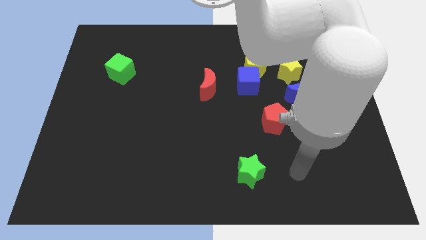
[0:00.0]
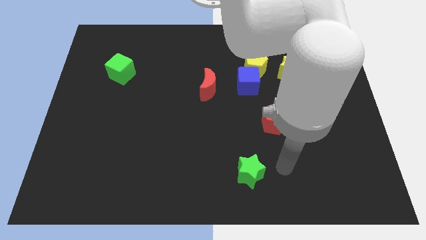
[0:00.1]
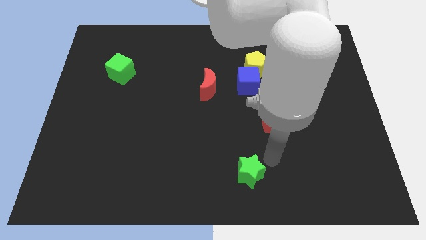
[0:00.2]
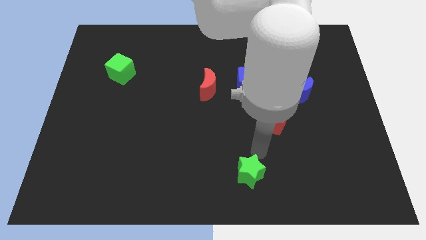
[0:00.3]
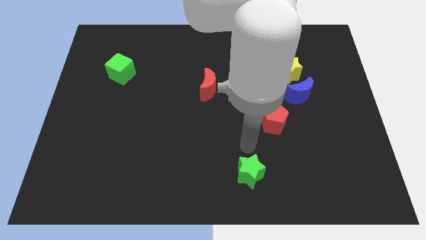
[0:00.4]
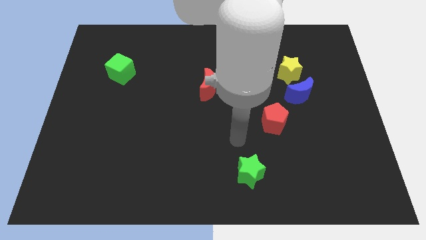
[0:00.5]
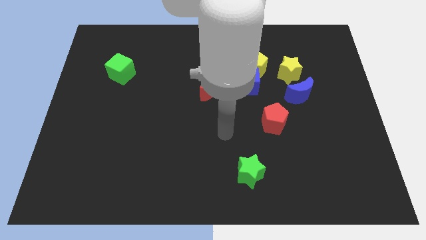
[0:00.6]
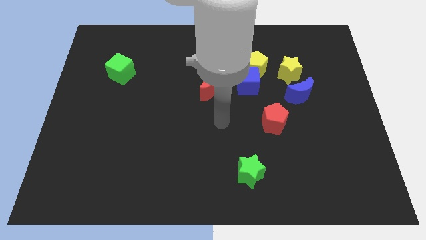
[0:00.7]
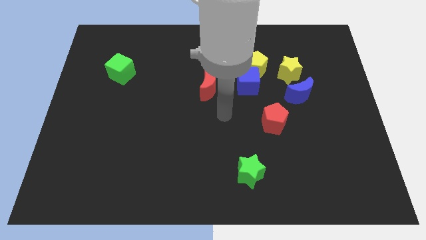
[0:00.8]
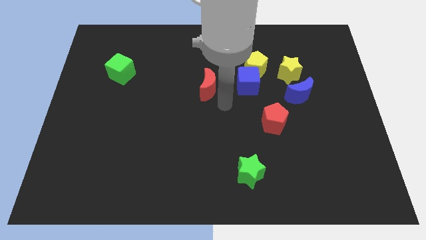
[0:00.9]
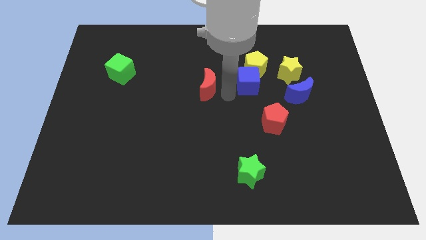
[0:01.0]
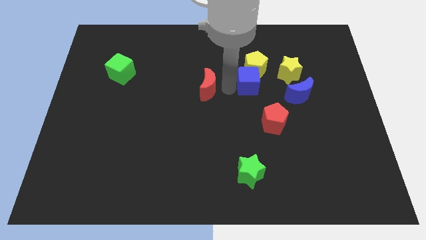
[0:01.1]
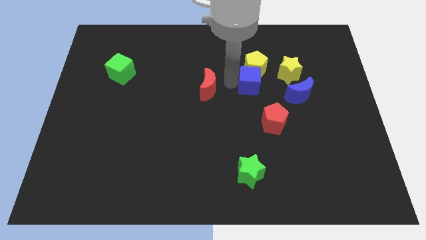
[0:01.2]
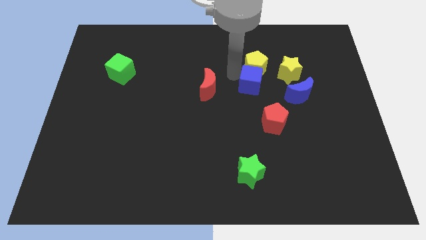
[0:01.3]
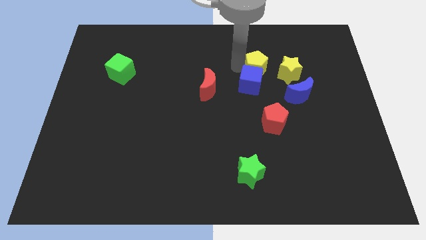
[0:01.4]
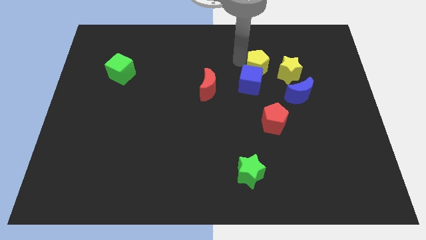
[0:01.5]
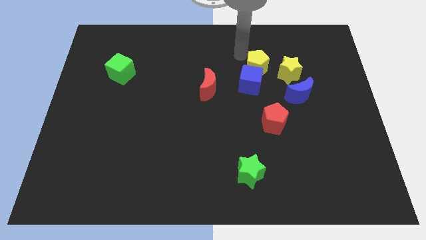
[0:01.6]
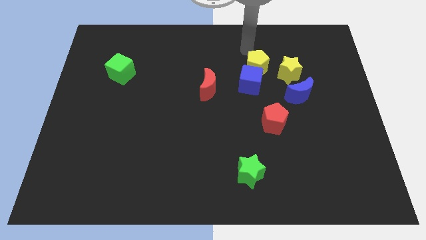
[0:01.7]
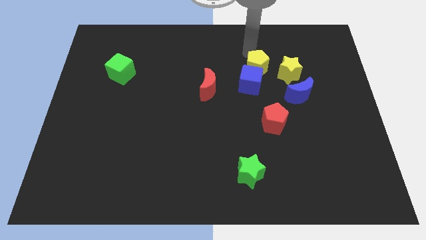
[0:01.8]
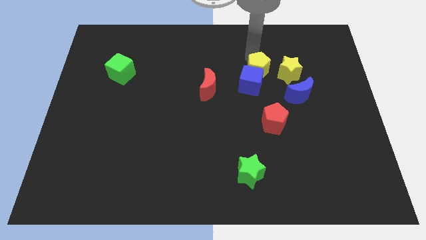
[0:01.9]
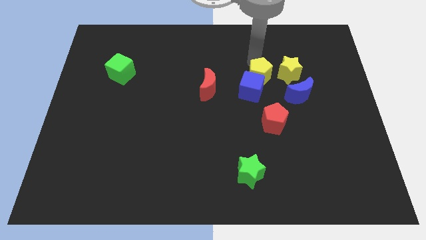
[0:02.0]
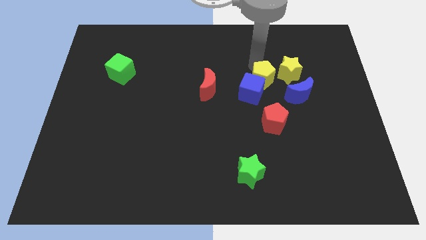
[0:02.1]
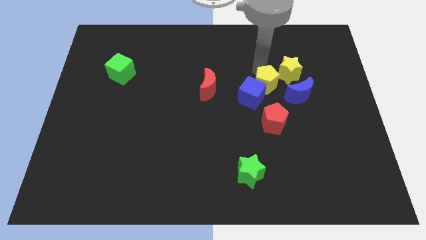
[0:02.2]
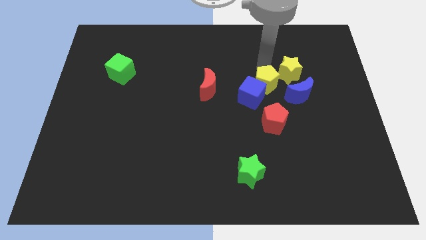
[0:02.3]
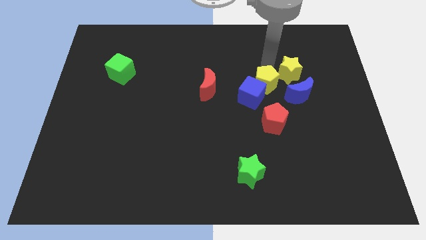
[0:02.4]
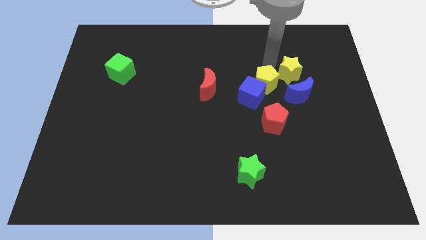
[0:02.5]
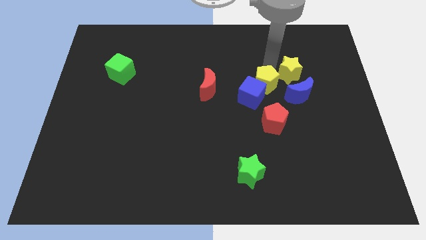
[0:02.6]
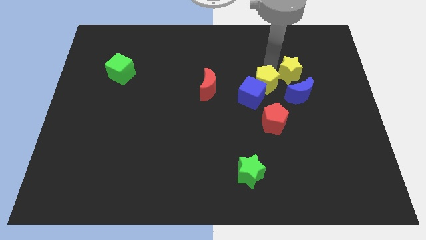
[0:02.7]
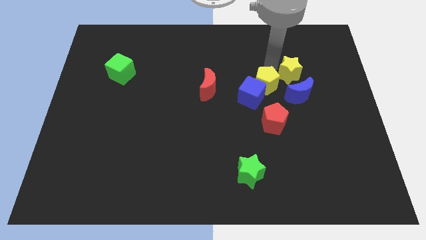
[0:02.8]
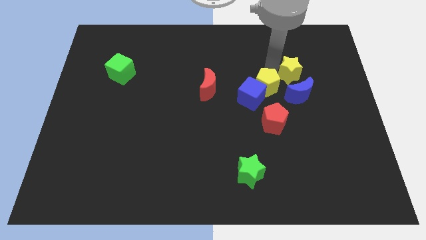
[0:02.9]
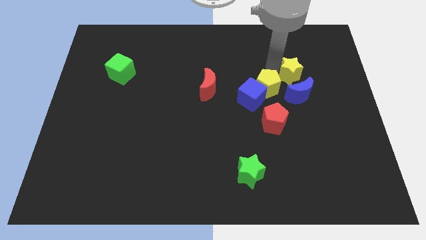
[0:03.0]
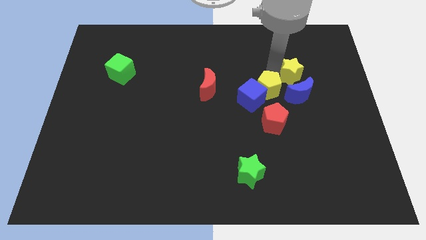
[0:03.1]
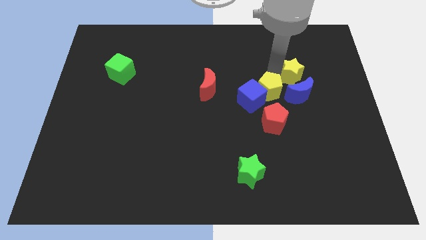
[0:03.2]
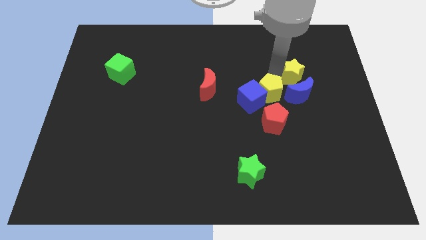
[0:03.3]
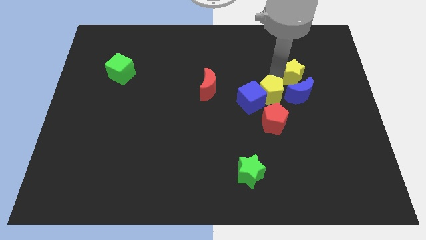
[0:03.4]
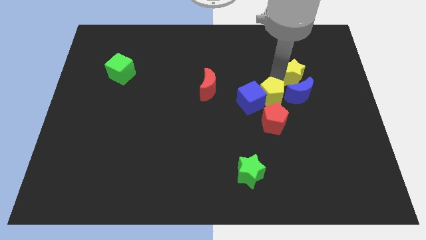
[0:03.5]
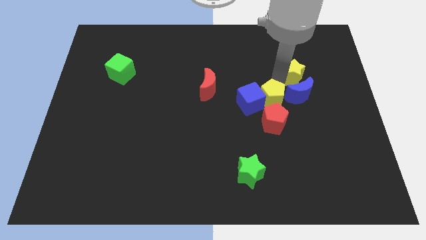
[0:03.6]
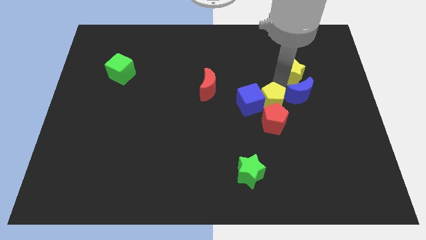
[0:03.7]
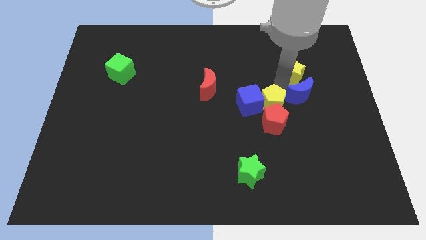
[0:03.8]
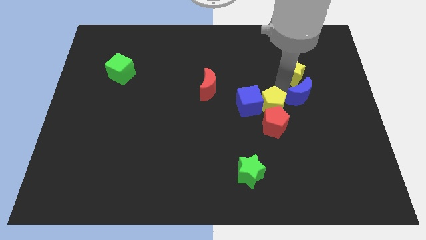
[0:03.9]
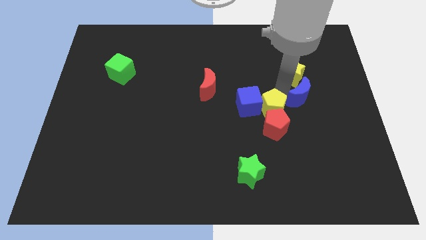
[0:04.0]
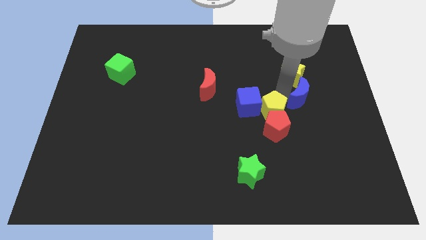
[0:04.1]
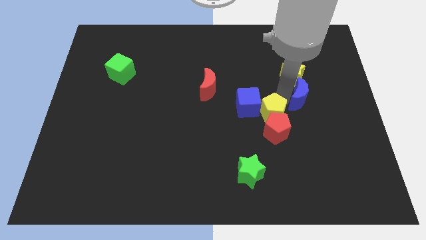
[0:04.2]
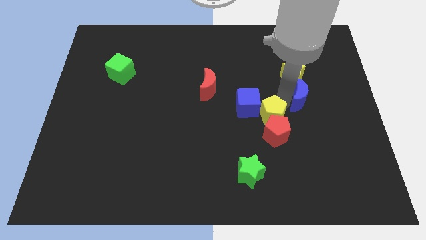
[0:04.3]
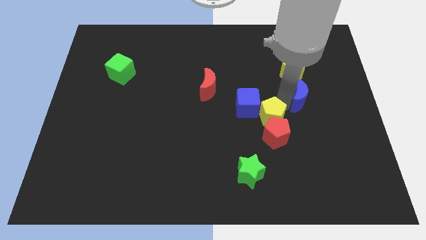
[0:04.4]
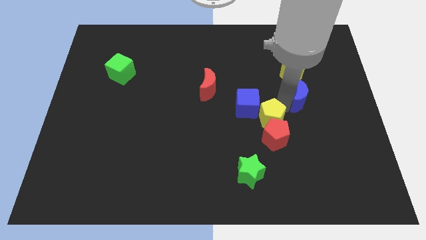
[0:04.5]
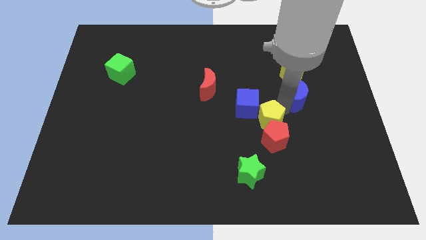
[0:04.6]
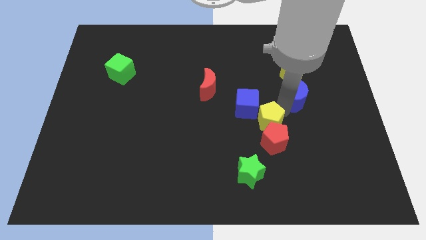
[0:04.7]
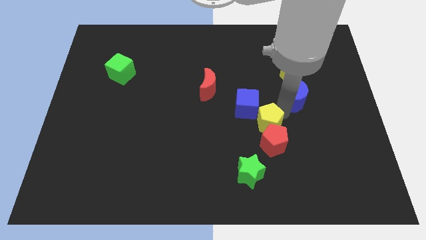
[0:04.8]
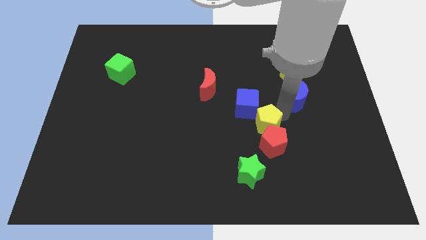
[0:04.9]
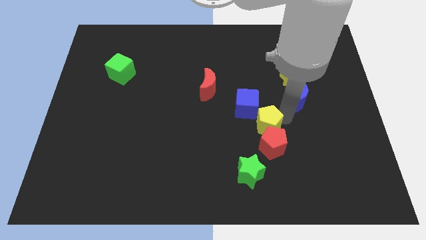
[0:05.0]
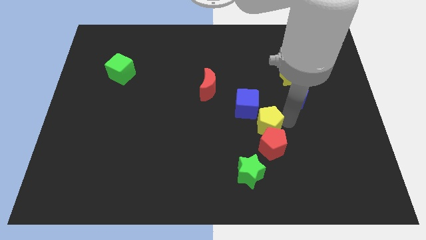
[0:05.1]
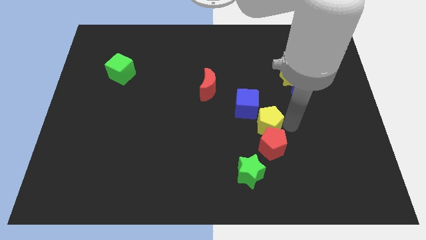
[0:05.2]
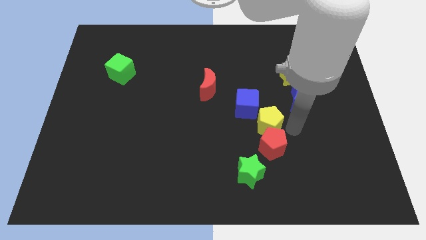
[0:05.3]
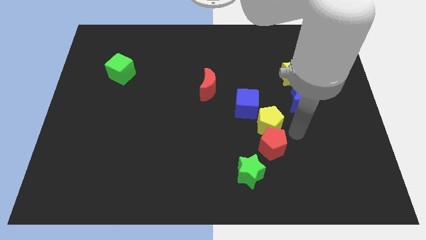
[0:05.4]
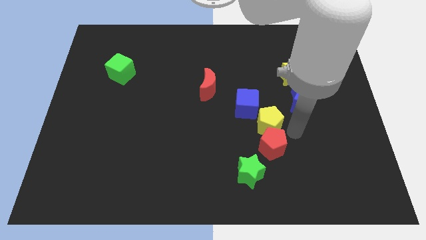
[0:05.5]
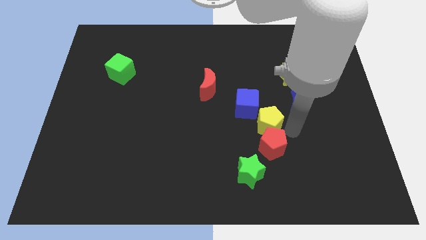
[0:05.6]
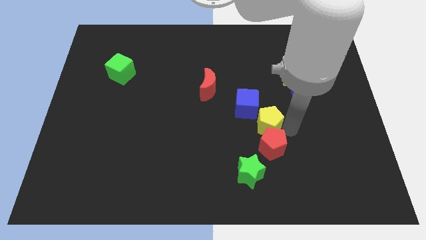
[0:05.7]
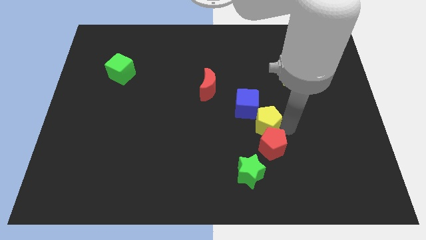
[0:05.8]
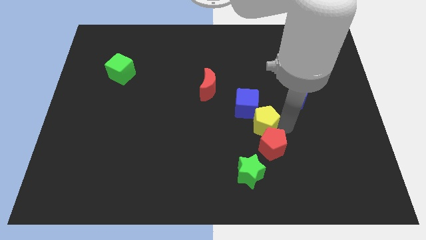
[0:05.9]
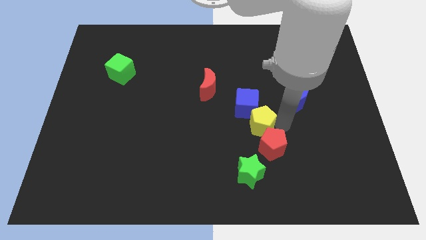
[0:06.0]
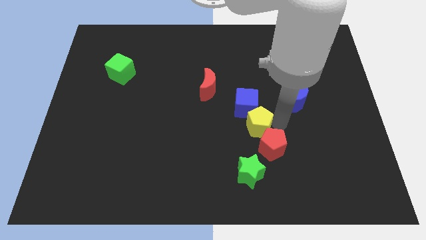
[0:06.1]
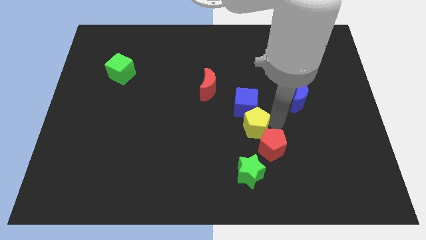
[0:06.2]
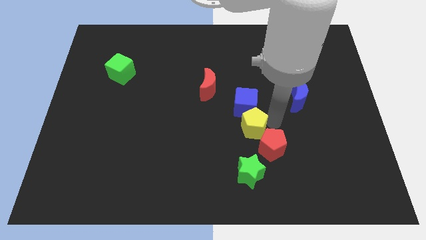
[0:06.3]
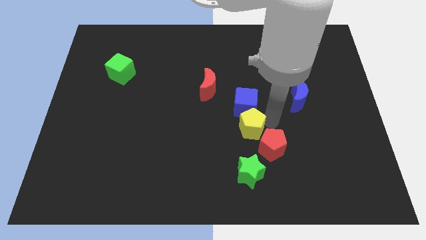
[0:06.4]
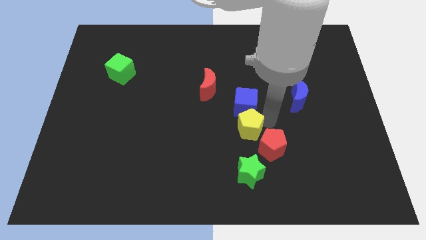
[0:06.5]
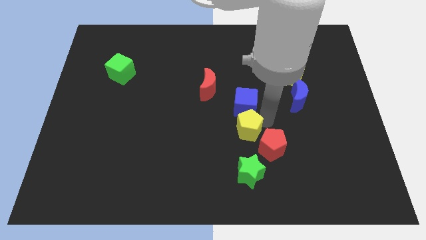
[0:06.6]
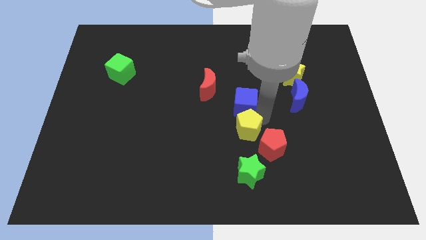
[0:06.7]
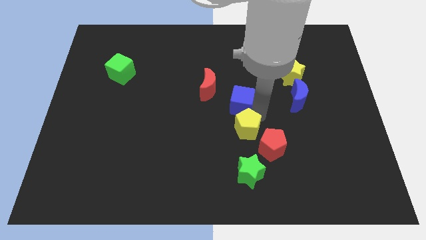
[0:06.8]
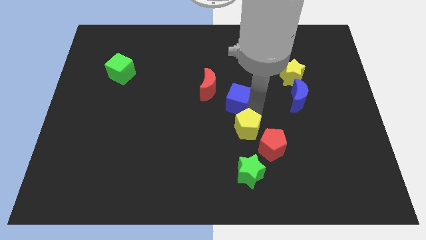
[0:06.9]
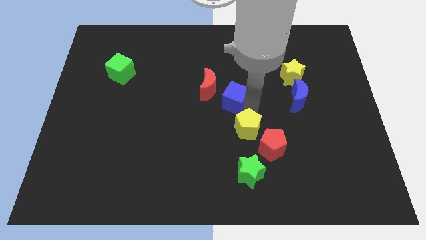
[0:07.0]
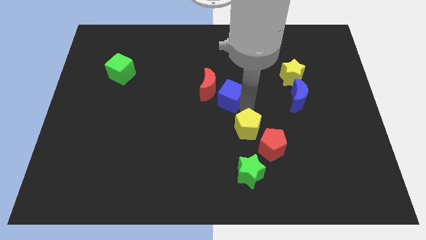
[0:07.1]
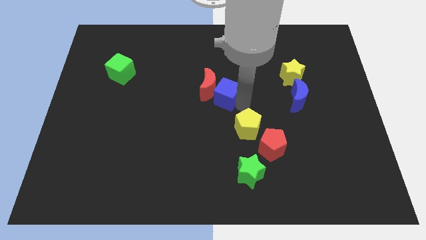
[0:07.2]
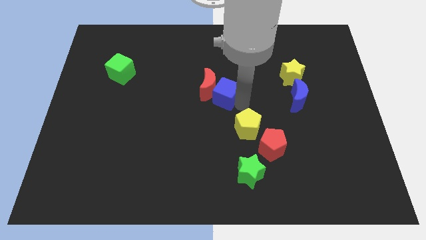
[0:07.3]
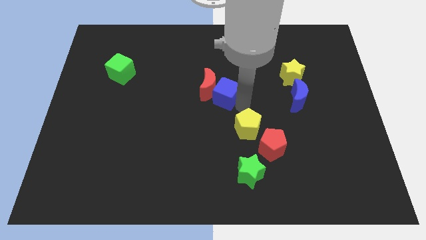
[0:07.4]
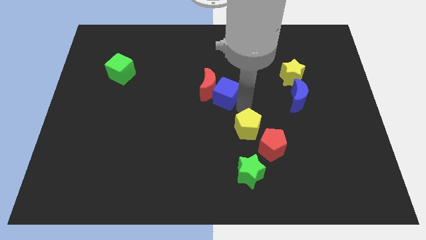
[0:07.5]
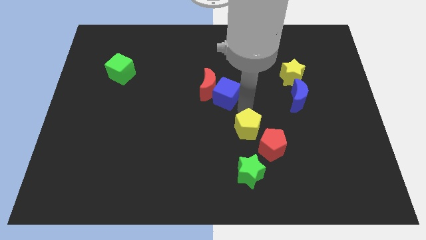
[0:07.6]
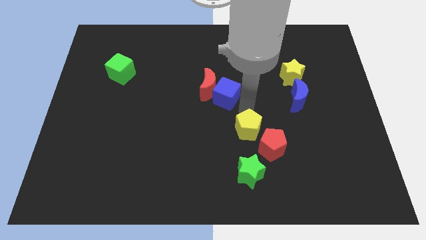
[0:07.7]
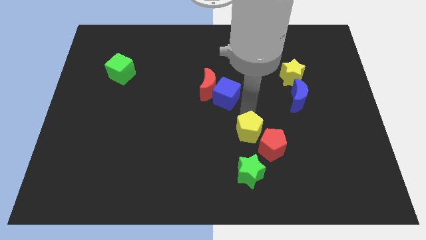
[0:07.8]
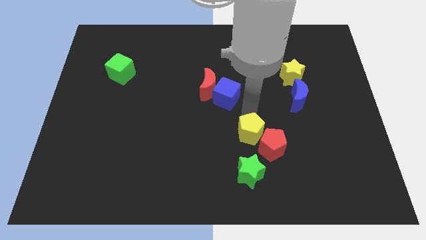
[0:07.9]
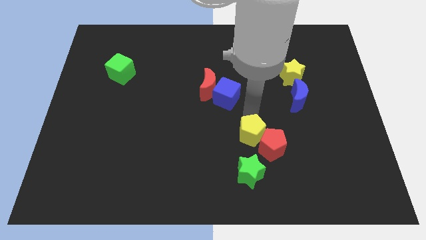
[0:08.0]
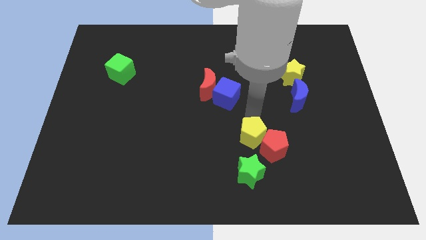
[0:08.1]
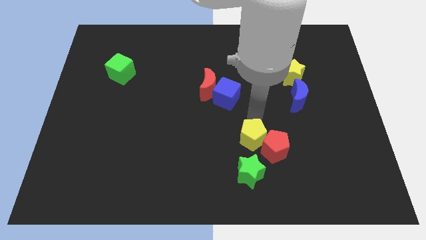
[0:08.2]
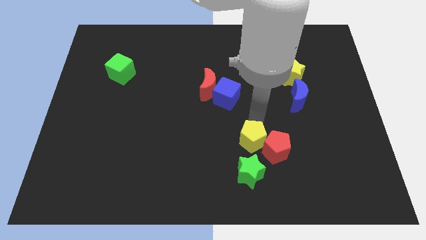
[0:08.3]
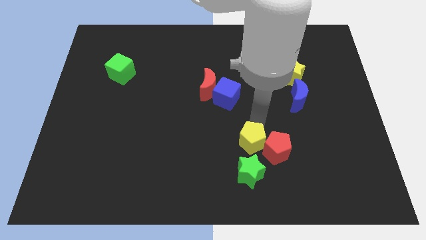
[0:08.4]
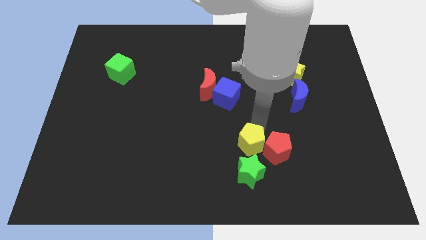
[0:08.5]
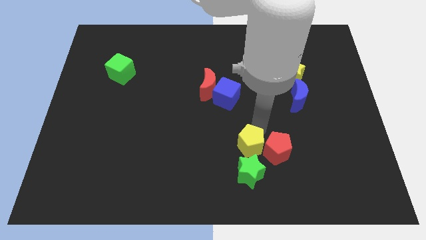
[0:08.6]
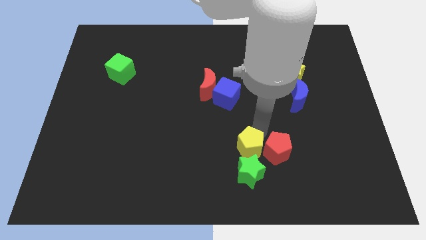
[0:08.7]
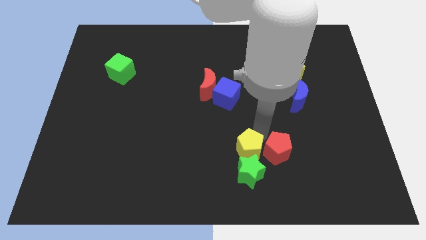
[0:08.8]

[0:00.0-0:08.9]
push the yellow pentagon close to the green star
